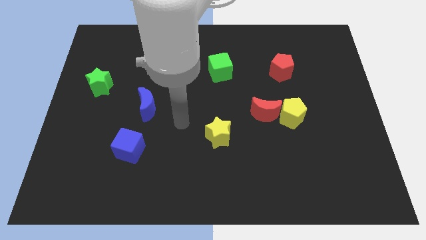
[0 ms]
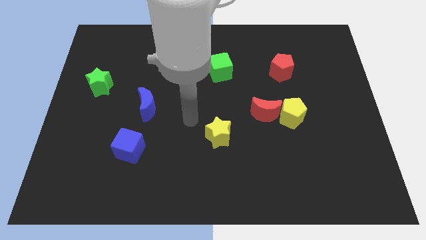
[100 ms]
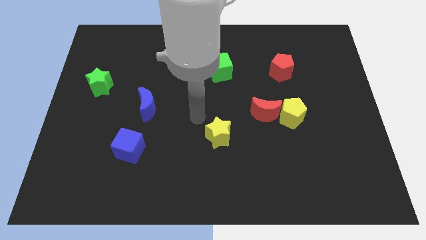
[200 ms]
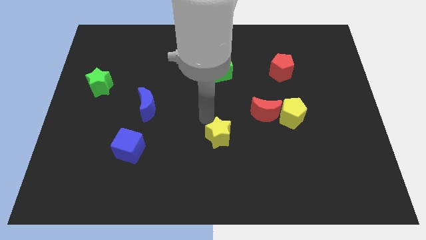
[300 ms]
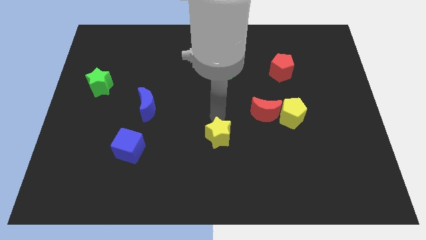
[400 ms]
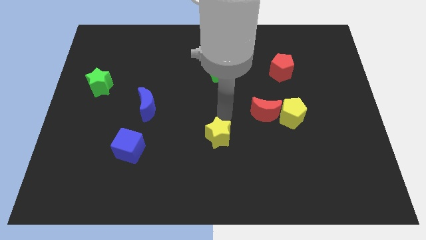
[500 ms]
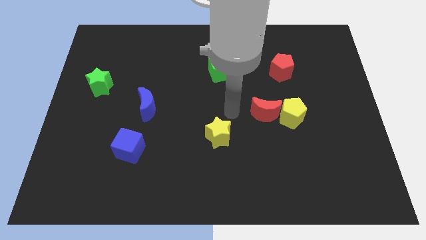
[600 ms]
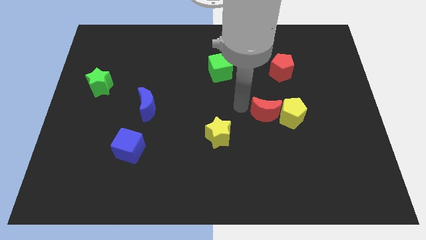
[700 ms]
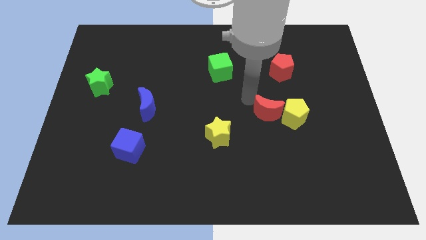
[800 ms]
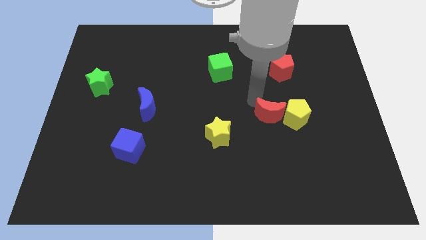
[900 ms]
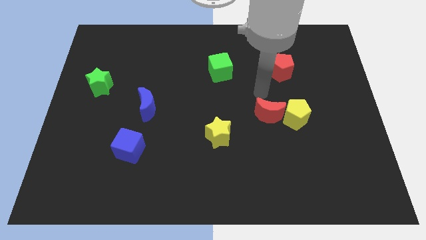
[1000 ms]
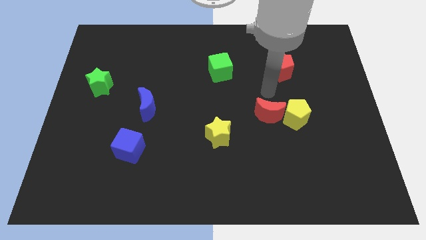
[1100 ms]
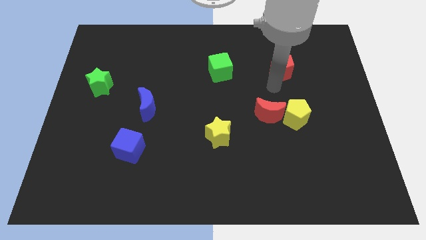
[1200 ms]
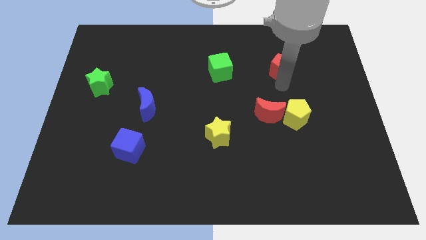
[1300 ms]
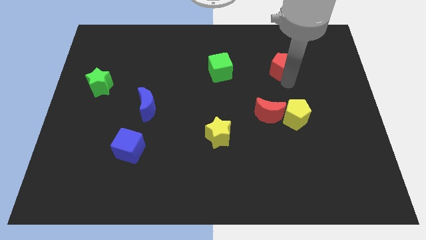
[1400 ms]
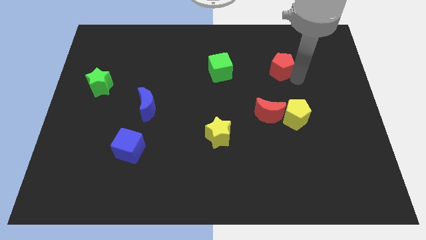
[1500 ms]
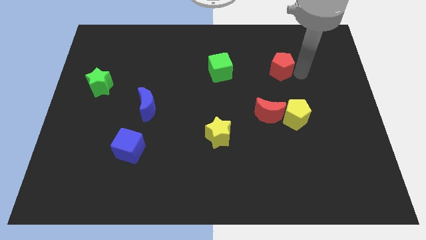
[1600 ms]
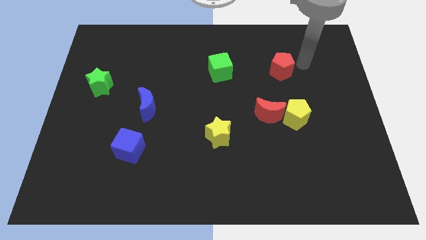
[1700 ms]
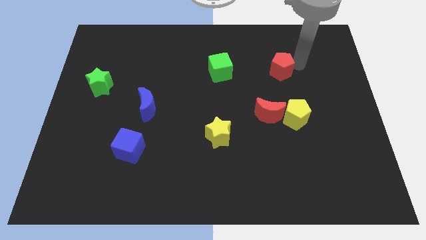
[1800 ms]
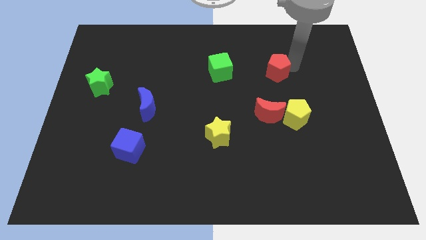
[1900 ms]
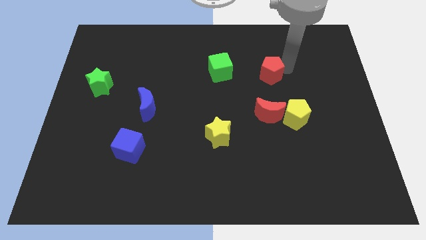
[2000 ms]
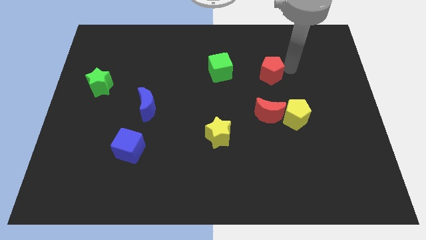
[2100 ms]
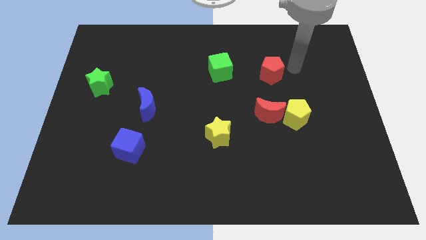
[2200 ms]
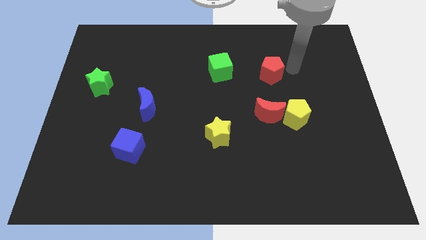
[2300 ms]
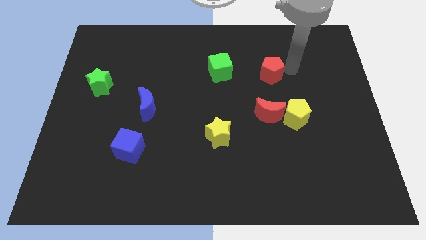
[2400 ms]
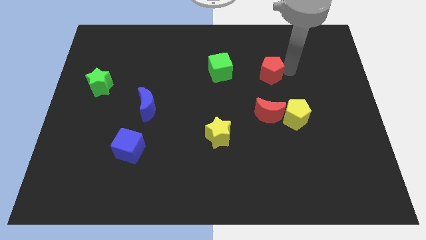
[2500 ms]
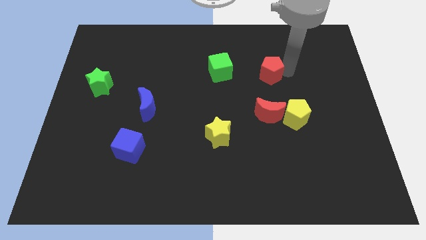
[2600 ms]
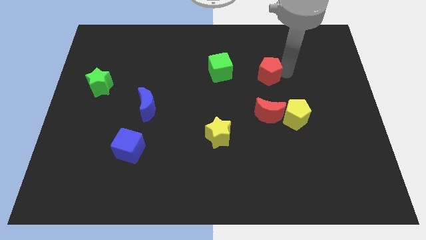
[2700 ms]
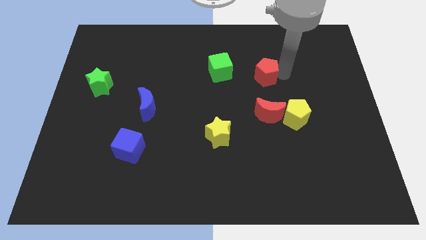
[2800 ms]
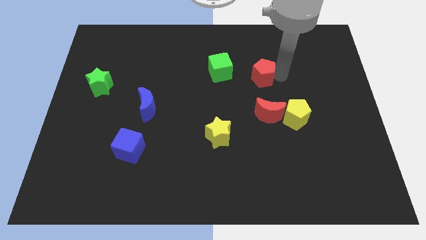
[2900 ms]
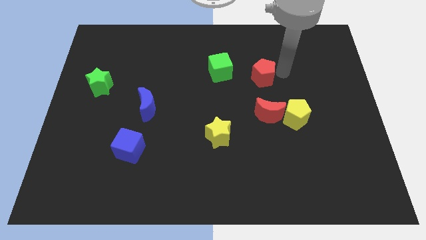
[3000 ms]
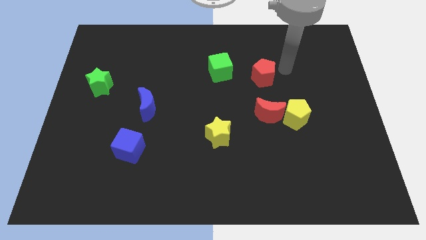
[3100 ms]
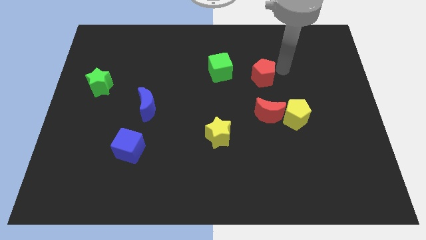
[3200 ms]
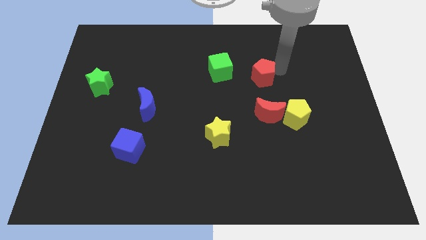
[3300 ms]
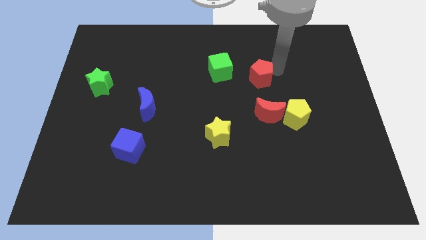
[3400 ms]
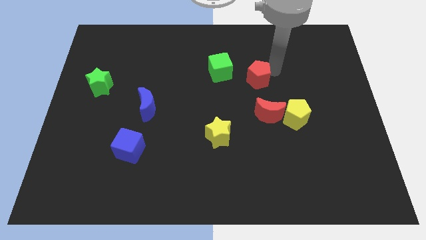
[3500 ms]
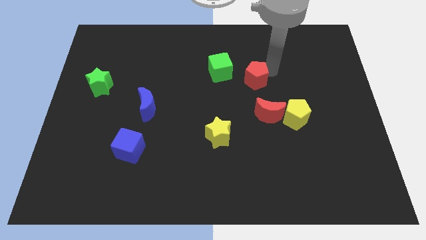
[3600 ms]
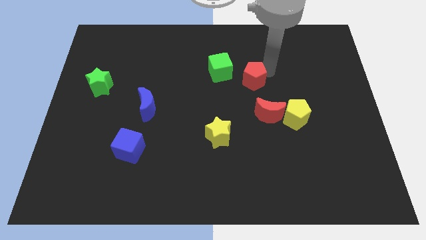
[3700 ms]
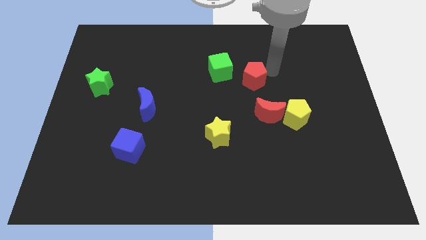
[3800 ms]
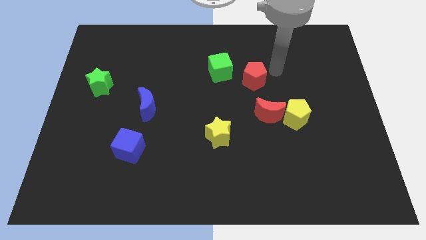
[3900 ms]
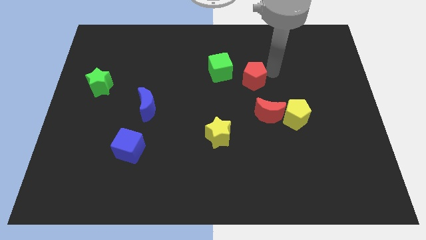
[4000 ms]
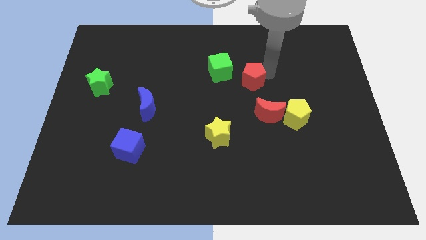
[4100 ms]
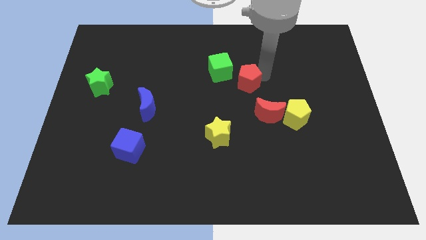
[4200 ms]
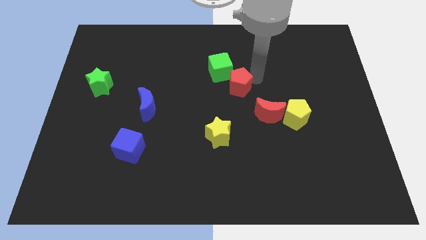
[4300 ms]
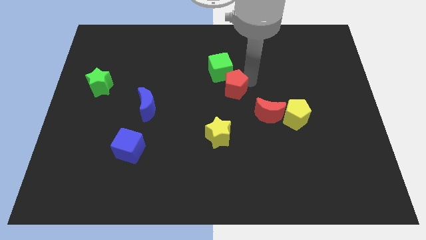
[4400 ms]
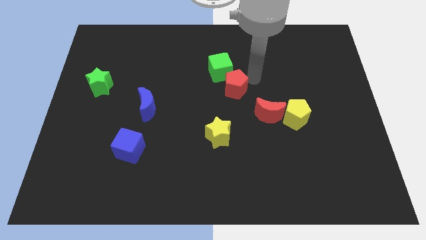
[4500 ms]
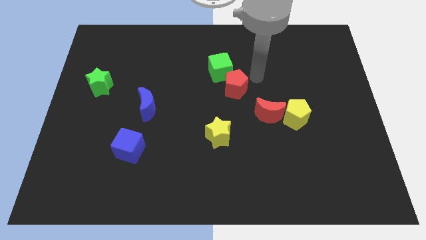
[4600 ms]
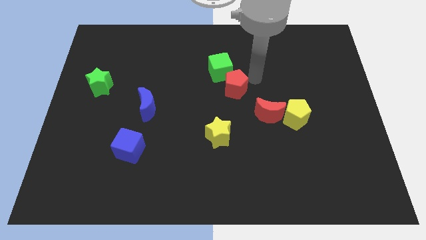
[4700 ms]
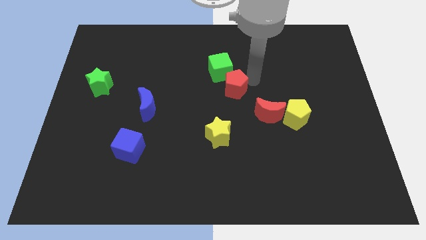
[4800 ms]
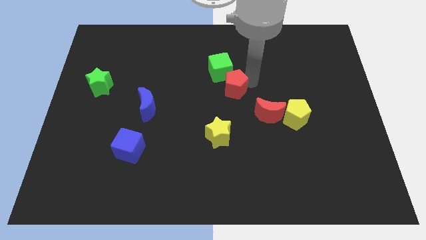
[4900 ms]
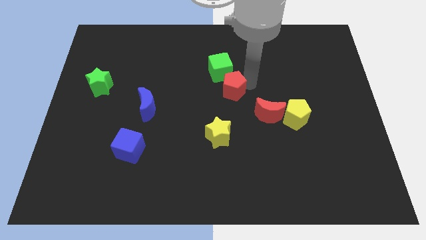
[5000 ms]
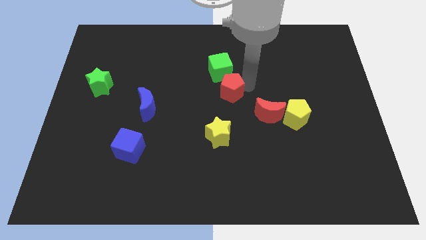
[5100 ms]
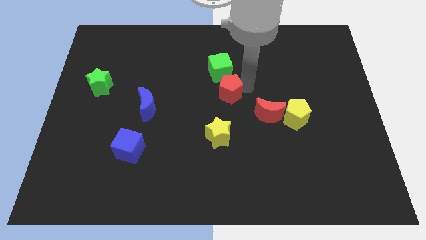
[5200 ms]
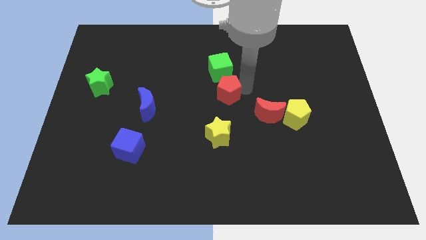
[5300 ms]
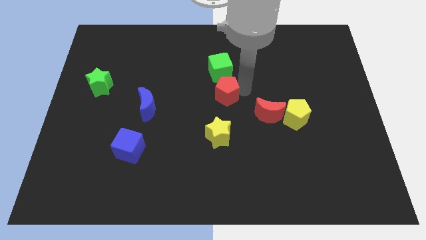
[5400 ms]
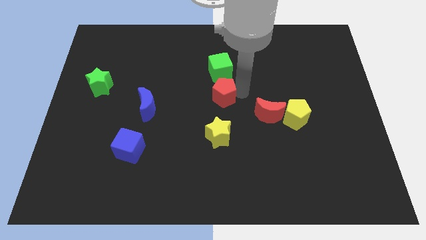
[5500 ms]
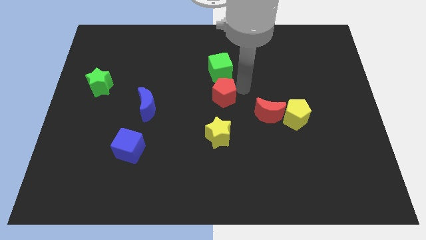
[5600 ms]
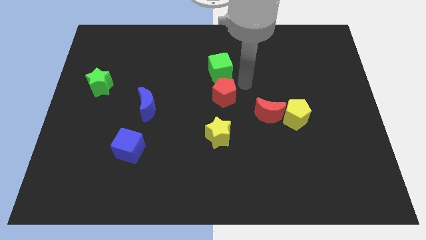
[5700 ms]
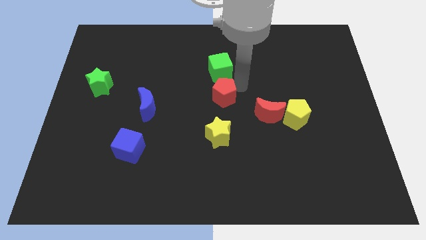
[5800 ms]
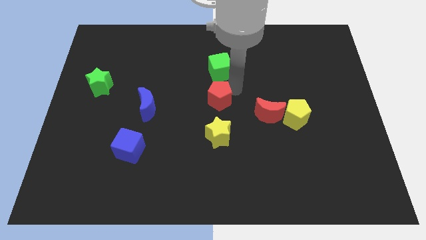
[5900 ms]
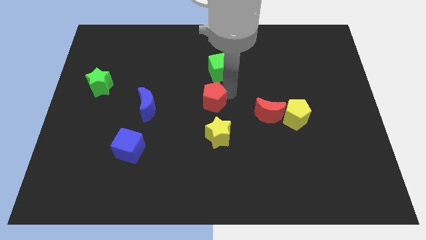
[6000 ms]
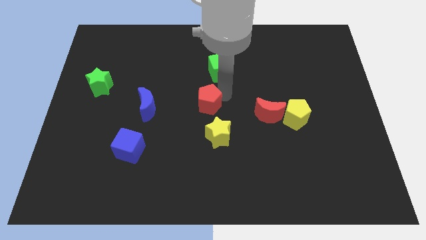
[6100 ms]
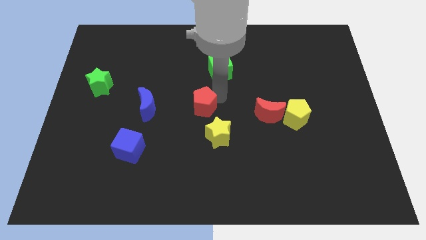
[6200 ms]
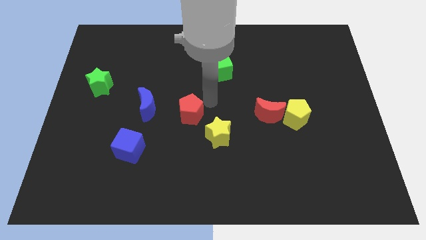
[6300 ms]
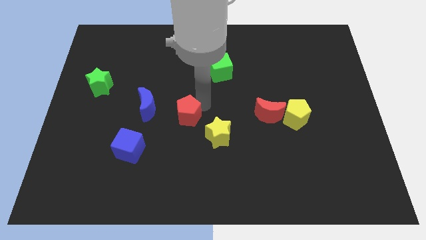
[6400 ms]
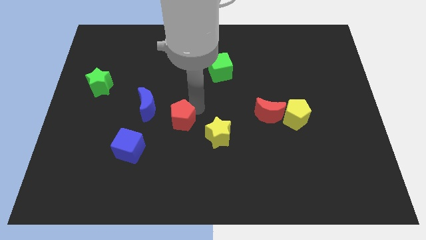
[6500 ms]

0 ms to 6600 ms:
move the red pentagon just left of the yellow star
